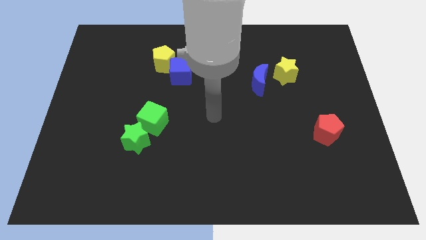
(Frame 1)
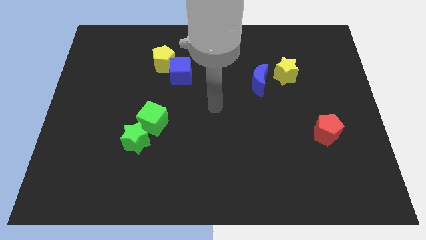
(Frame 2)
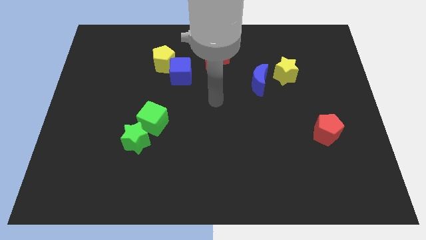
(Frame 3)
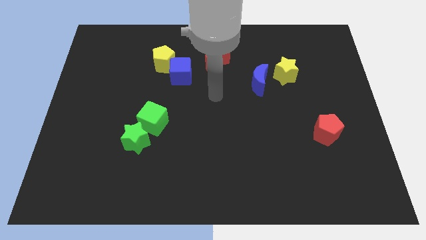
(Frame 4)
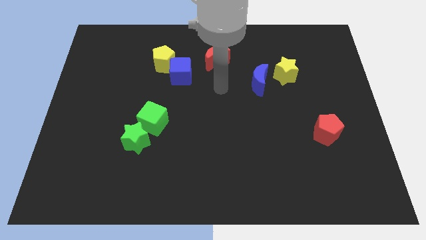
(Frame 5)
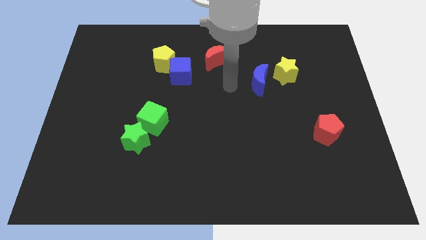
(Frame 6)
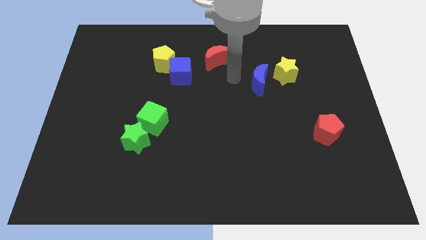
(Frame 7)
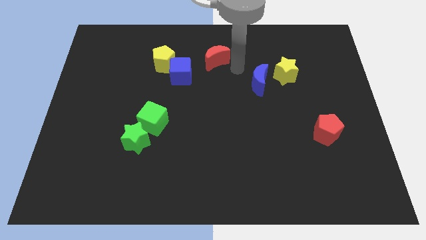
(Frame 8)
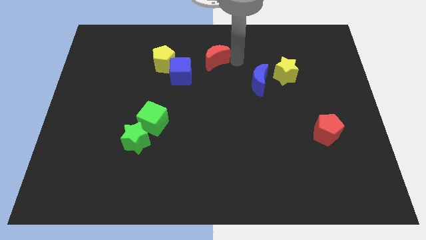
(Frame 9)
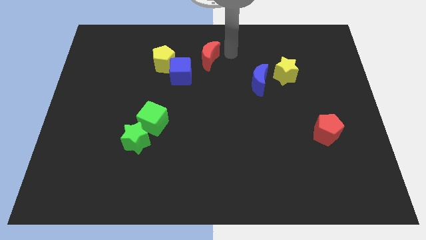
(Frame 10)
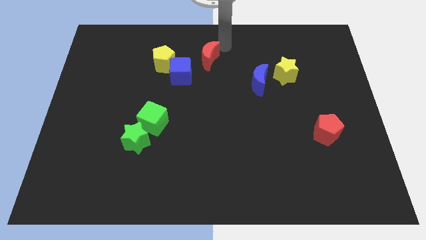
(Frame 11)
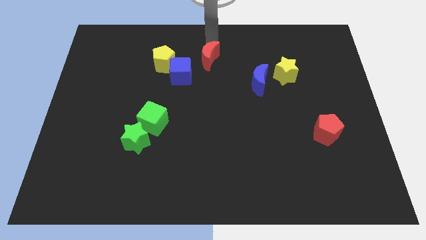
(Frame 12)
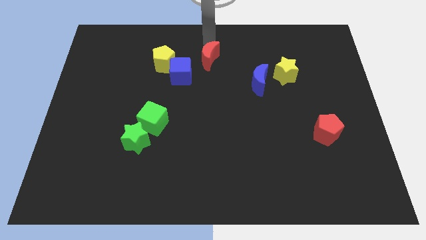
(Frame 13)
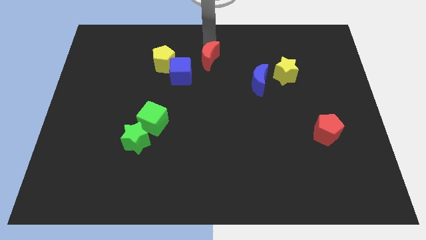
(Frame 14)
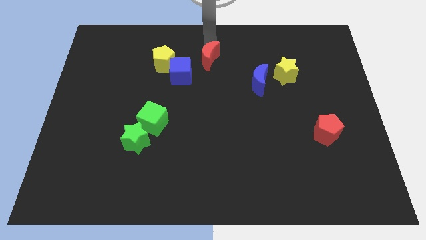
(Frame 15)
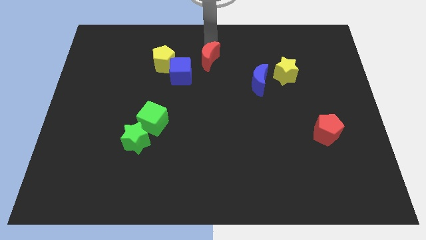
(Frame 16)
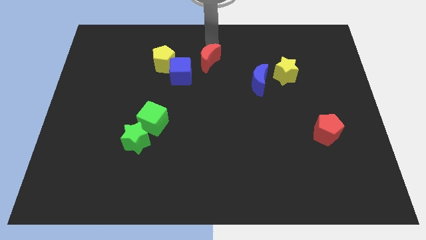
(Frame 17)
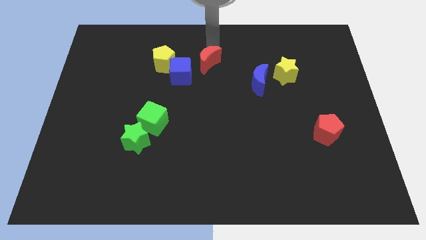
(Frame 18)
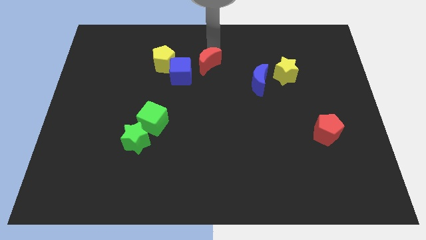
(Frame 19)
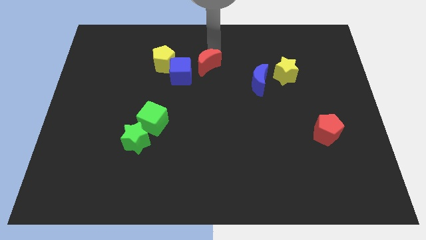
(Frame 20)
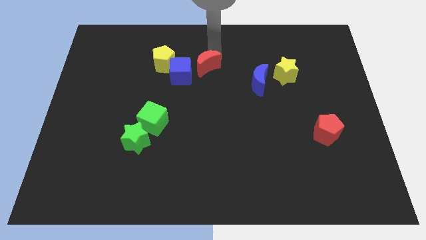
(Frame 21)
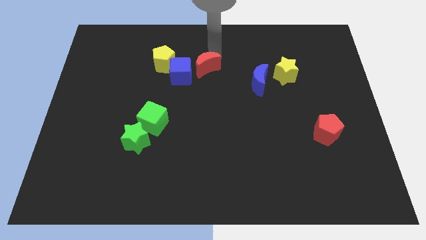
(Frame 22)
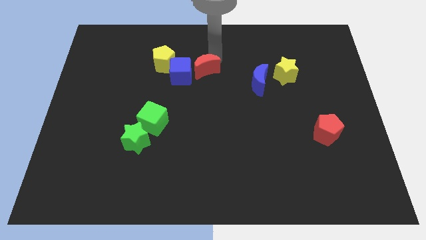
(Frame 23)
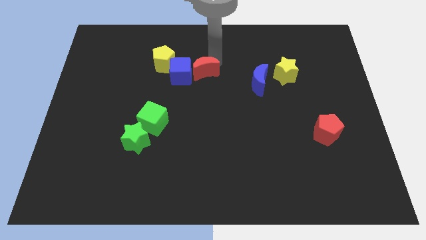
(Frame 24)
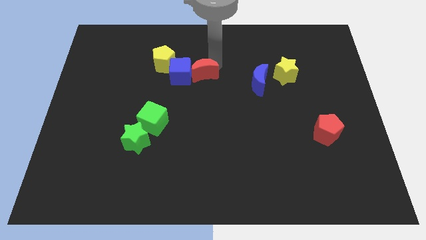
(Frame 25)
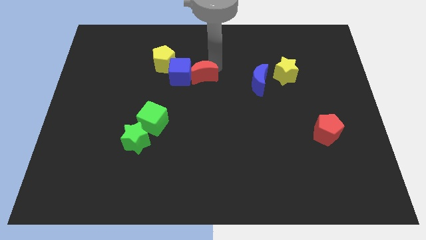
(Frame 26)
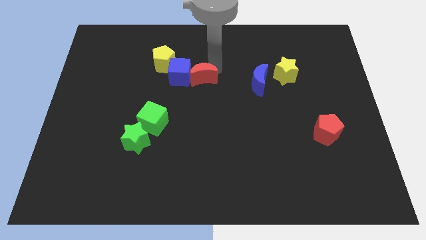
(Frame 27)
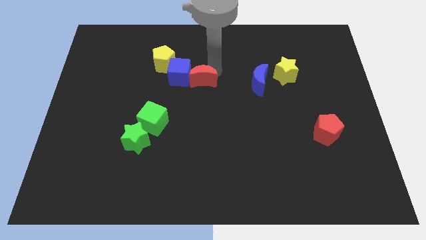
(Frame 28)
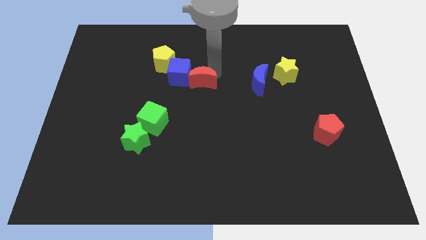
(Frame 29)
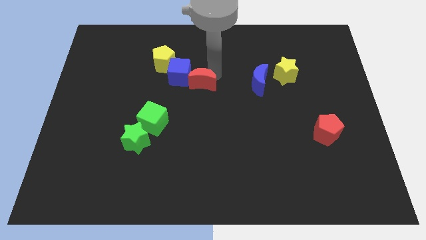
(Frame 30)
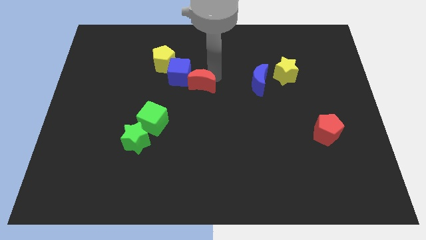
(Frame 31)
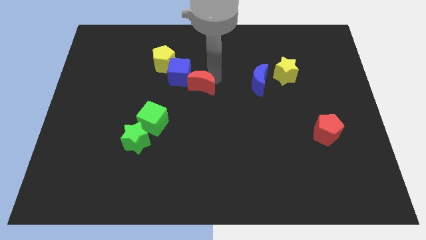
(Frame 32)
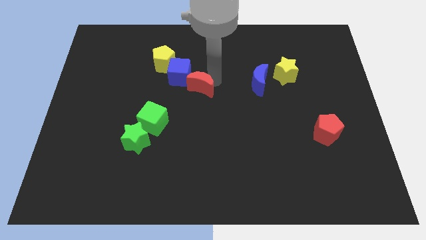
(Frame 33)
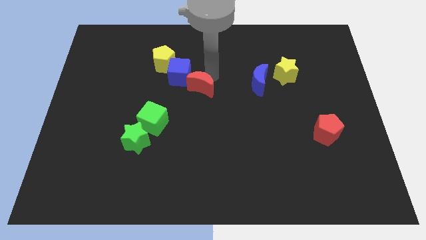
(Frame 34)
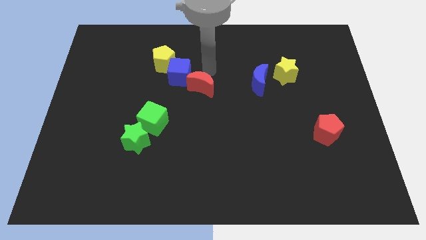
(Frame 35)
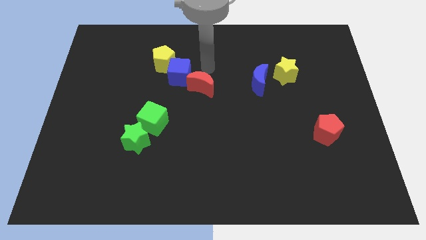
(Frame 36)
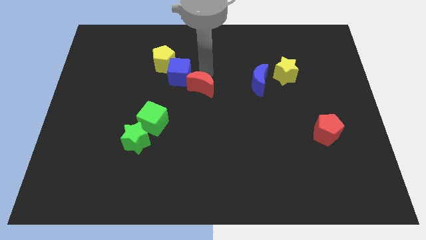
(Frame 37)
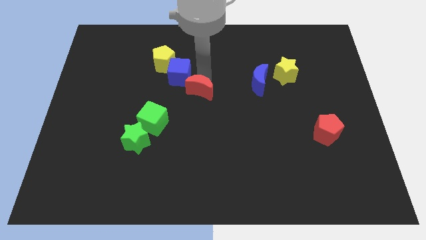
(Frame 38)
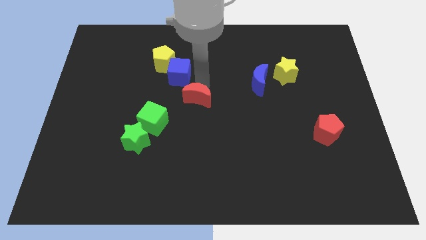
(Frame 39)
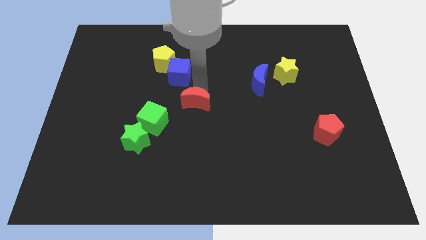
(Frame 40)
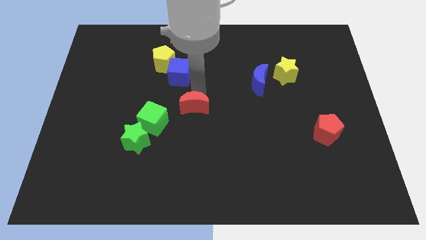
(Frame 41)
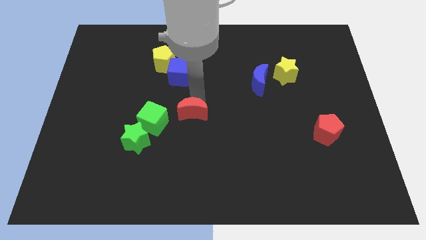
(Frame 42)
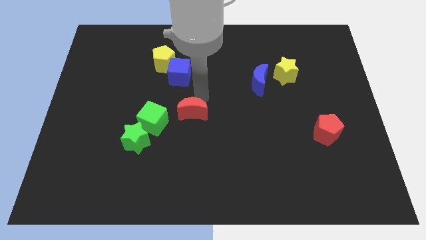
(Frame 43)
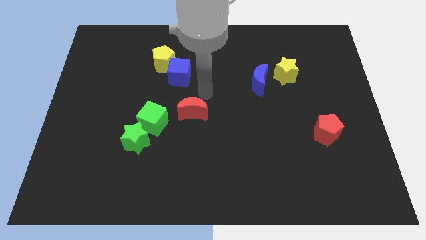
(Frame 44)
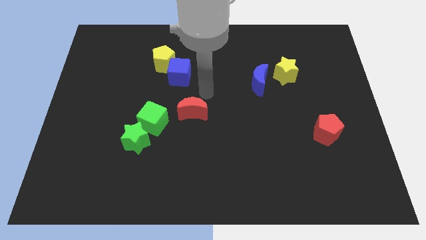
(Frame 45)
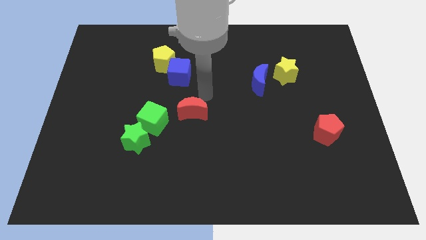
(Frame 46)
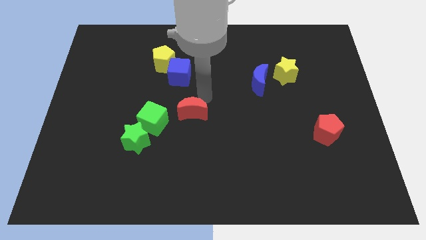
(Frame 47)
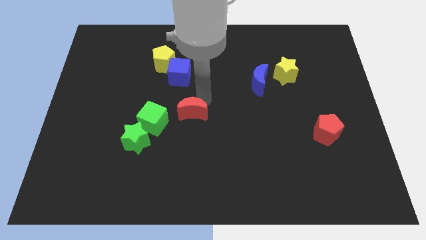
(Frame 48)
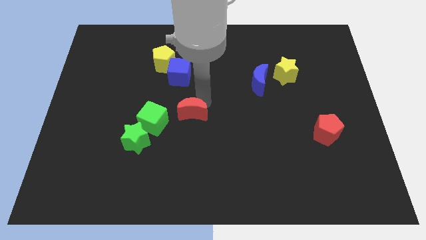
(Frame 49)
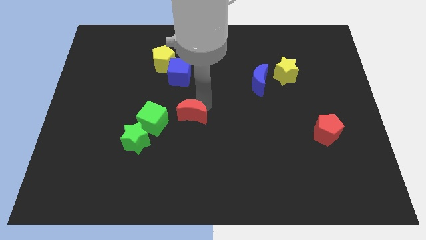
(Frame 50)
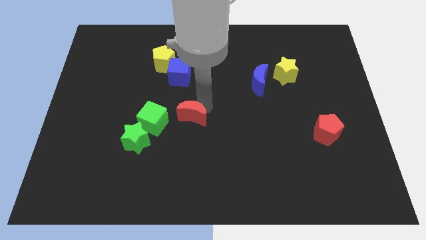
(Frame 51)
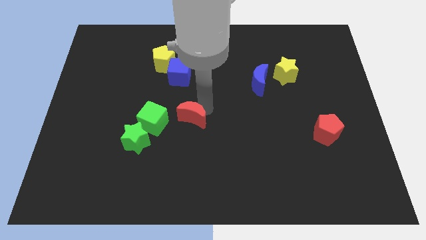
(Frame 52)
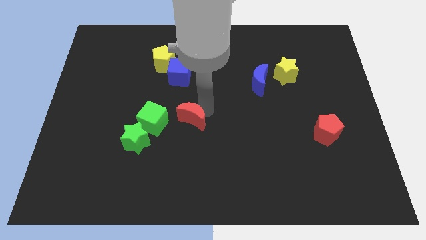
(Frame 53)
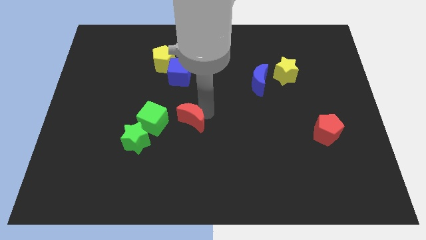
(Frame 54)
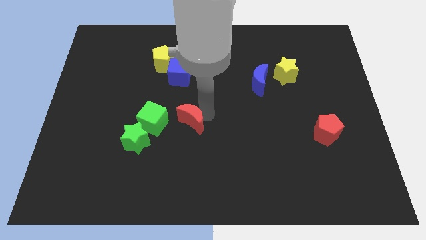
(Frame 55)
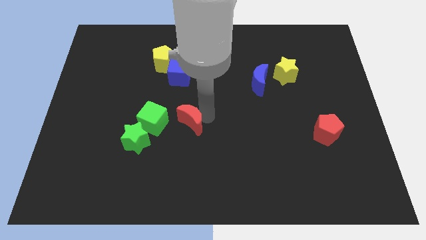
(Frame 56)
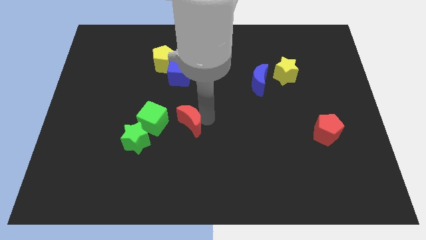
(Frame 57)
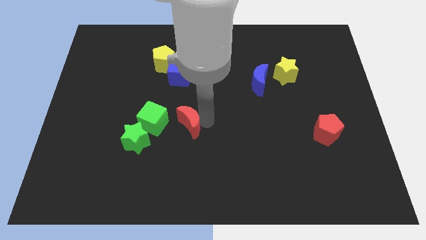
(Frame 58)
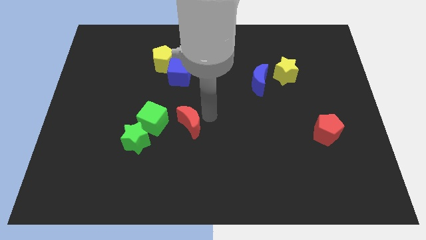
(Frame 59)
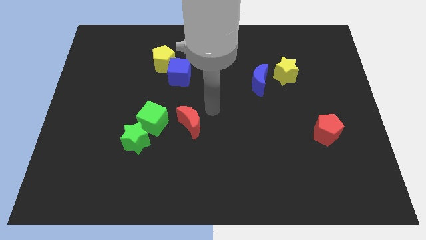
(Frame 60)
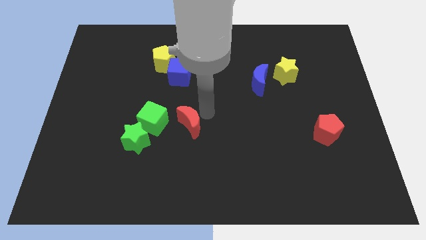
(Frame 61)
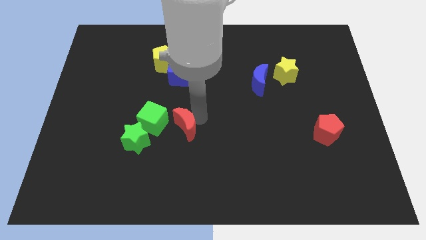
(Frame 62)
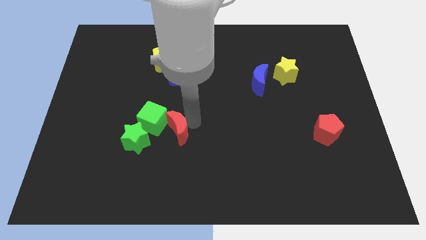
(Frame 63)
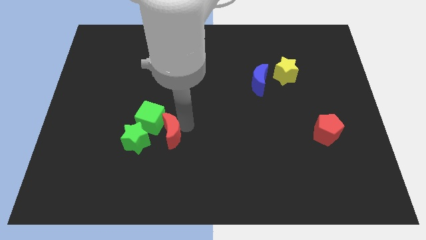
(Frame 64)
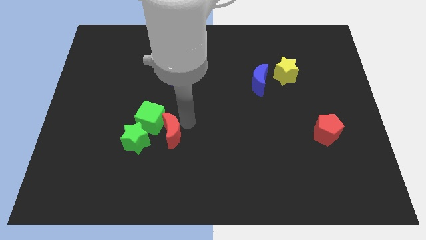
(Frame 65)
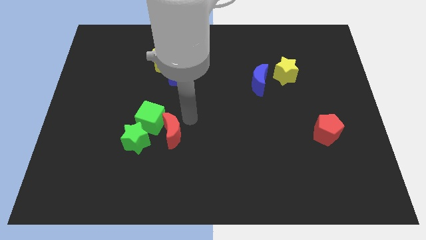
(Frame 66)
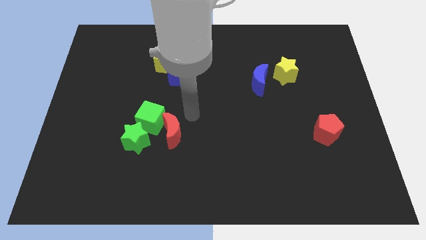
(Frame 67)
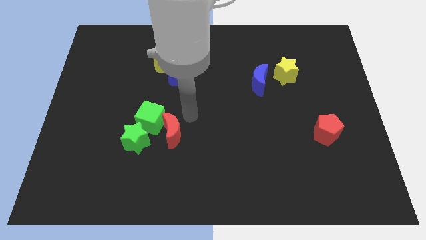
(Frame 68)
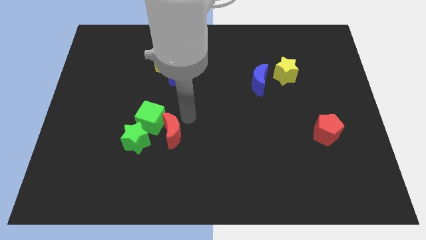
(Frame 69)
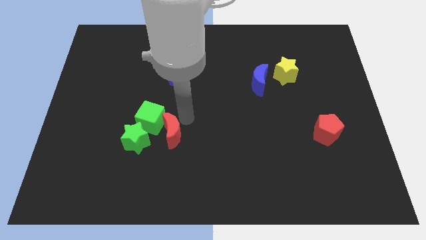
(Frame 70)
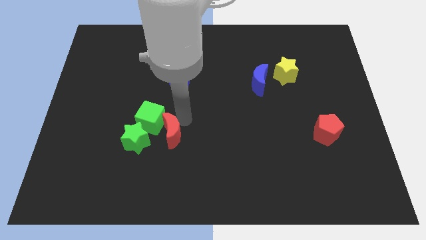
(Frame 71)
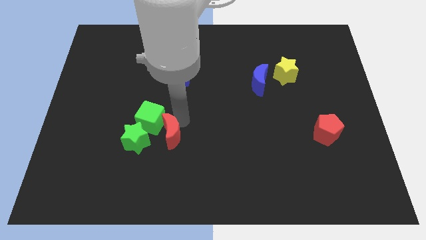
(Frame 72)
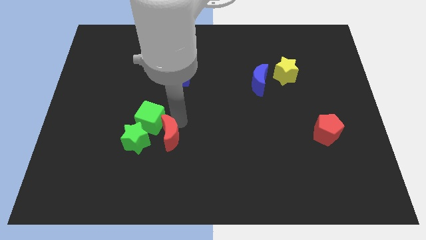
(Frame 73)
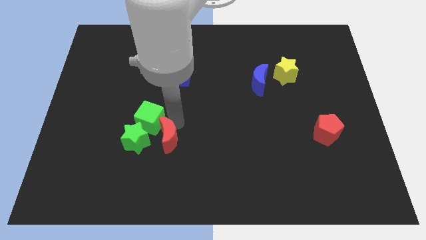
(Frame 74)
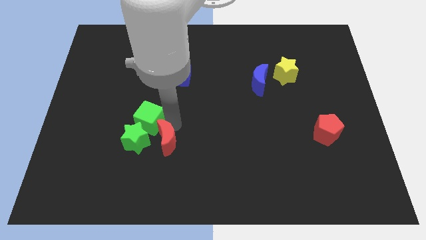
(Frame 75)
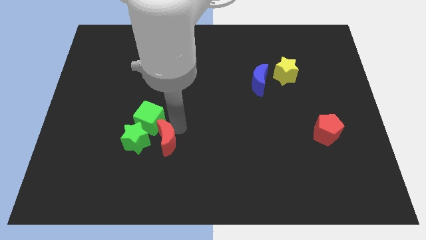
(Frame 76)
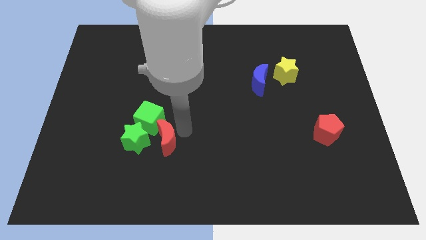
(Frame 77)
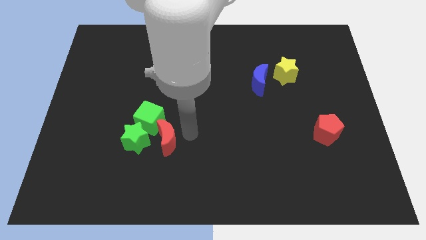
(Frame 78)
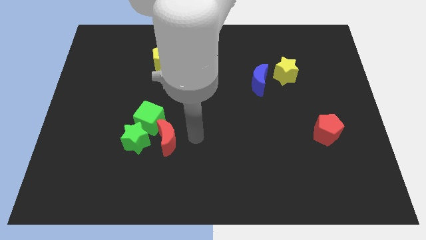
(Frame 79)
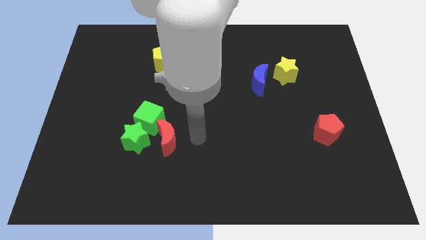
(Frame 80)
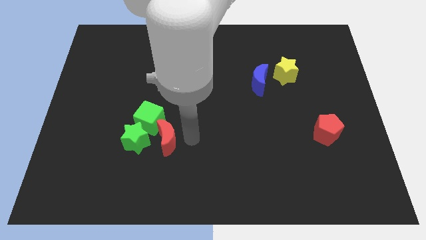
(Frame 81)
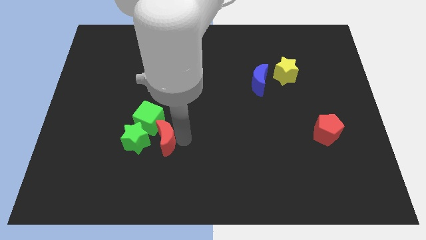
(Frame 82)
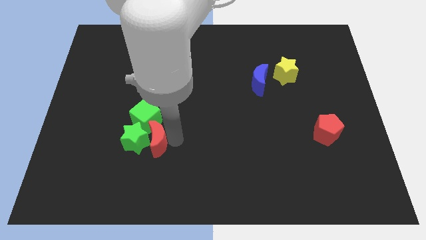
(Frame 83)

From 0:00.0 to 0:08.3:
move the red moon to the green star
